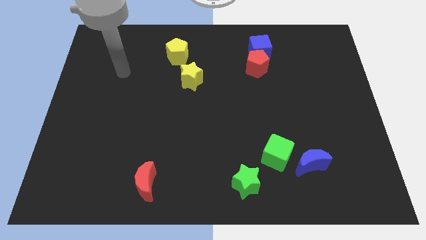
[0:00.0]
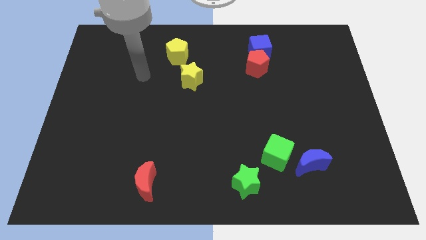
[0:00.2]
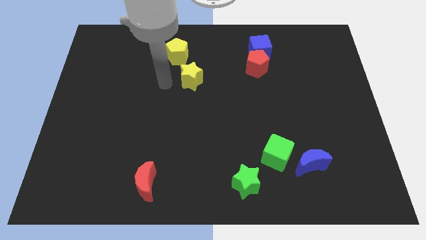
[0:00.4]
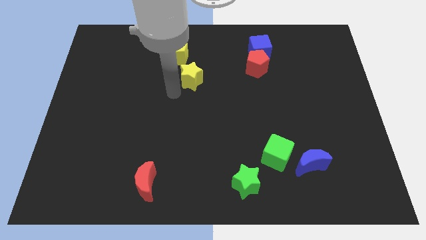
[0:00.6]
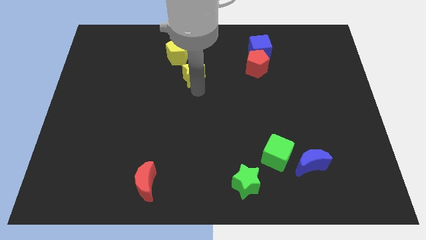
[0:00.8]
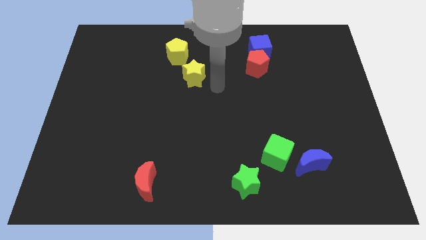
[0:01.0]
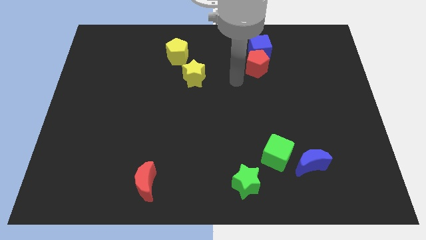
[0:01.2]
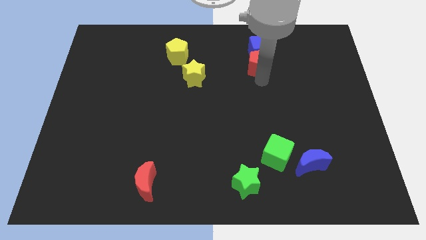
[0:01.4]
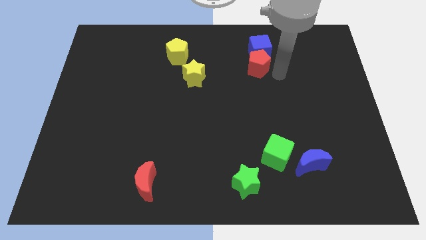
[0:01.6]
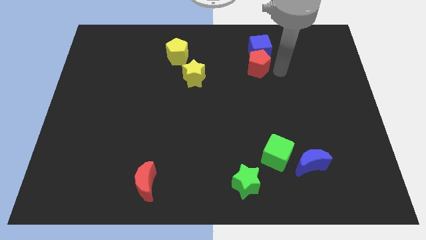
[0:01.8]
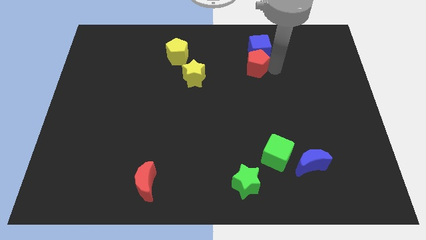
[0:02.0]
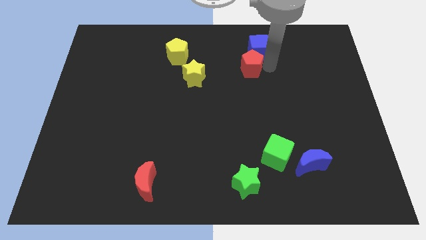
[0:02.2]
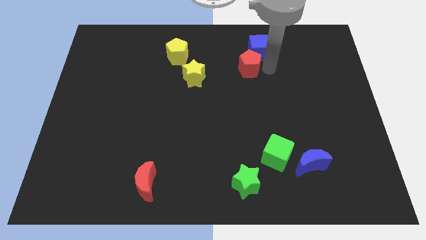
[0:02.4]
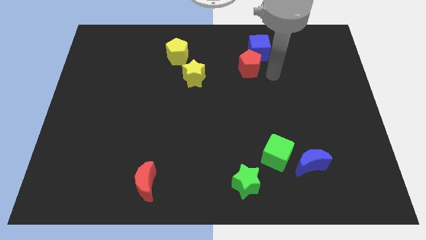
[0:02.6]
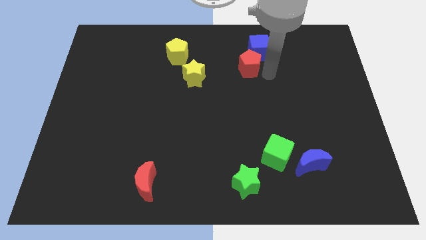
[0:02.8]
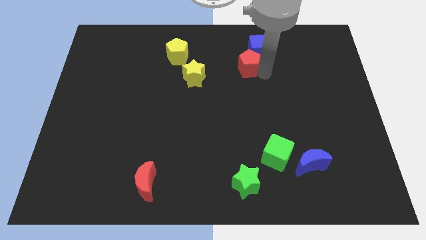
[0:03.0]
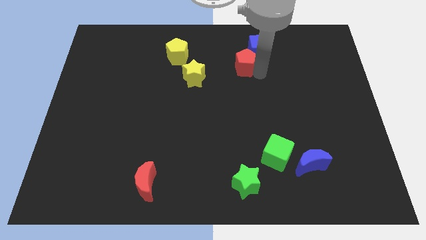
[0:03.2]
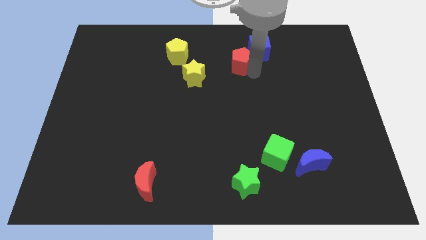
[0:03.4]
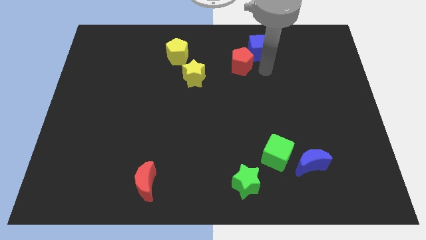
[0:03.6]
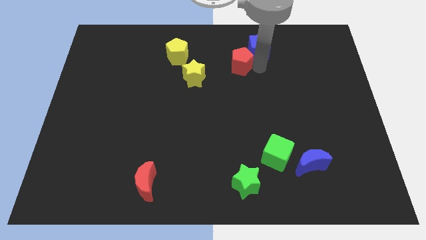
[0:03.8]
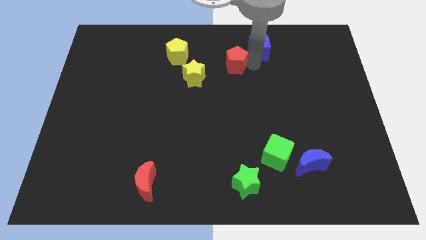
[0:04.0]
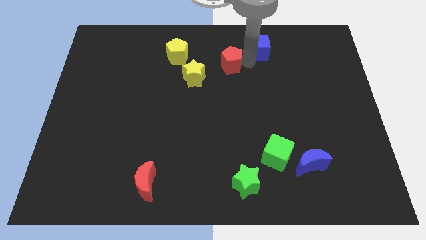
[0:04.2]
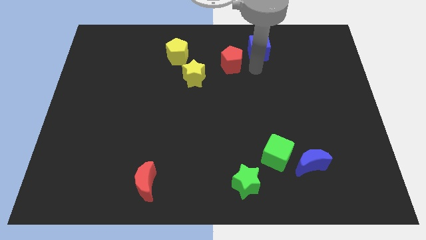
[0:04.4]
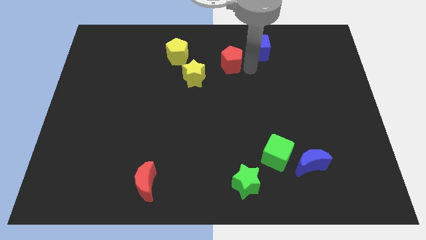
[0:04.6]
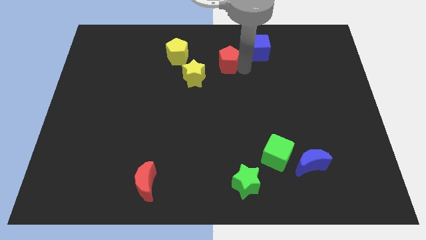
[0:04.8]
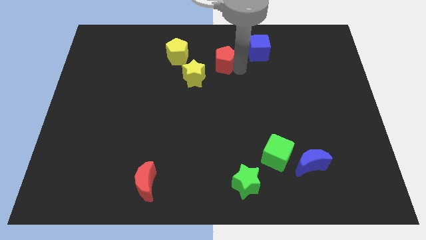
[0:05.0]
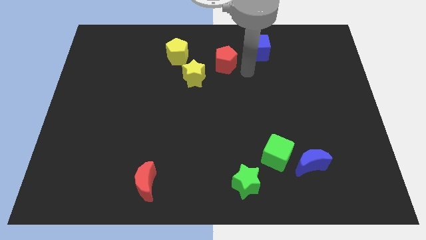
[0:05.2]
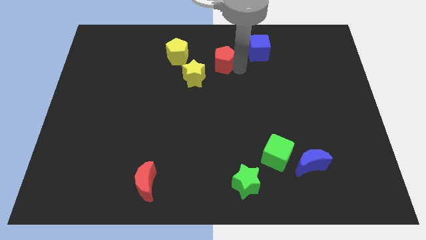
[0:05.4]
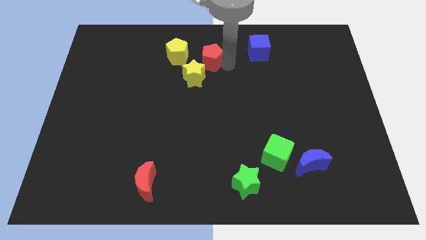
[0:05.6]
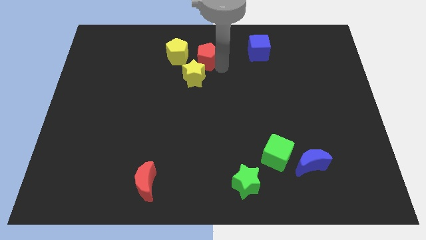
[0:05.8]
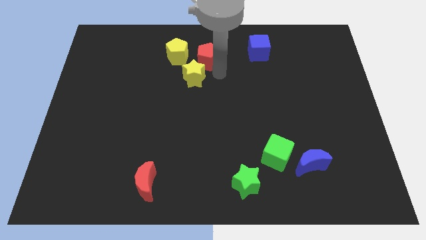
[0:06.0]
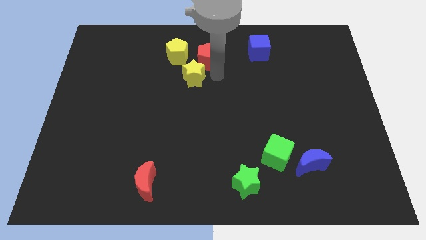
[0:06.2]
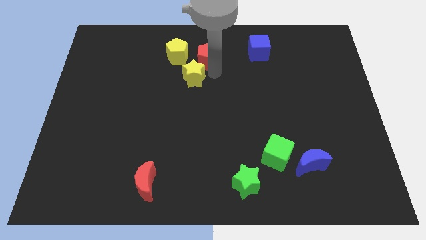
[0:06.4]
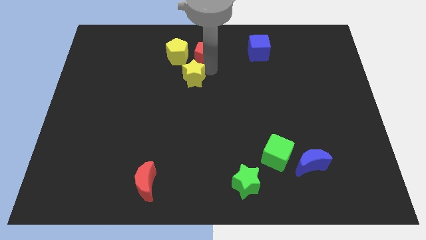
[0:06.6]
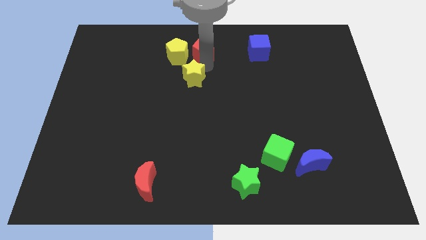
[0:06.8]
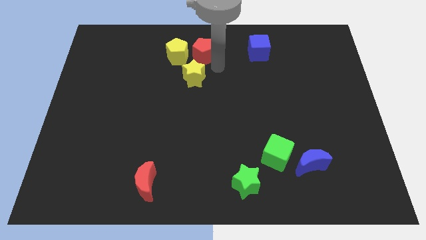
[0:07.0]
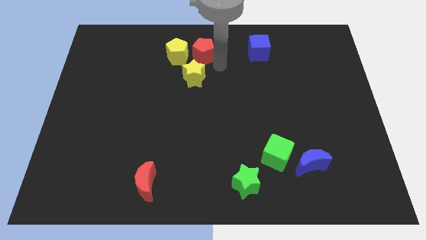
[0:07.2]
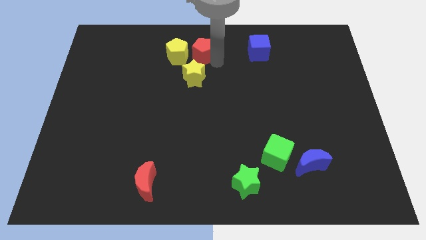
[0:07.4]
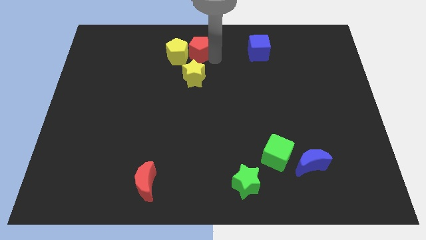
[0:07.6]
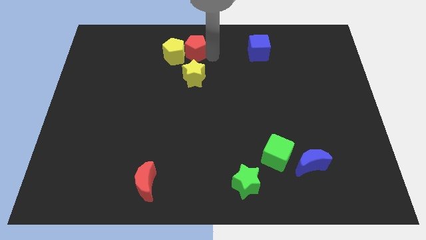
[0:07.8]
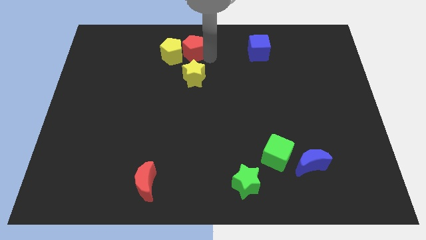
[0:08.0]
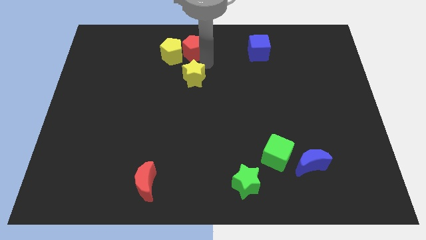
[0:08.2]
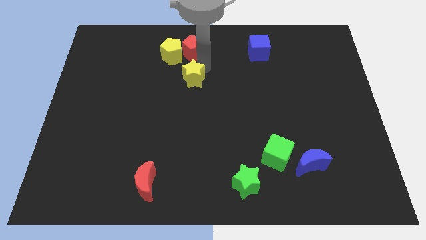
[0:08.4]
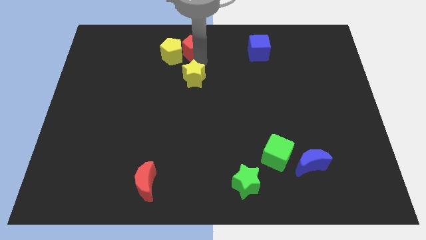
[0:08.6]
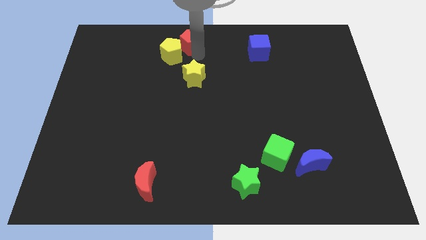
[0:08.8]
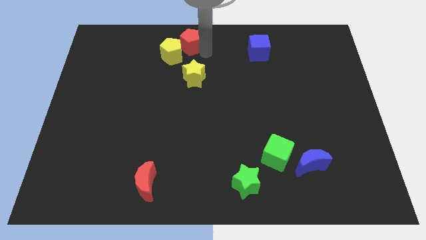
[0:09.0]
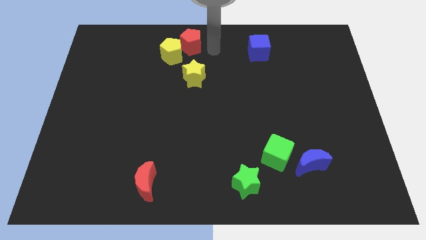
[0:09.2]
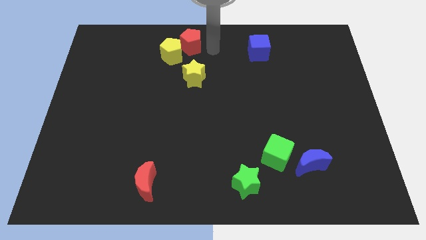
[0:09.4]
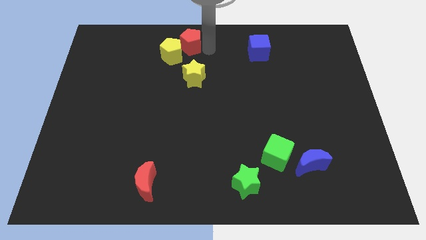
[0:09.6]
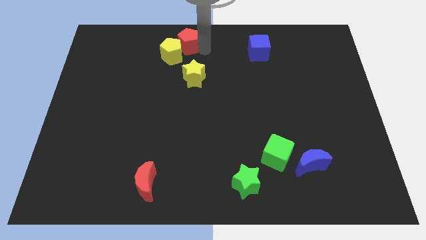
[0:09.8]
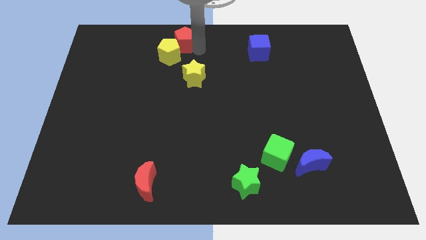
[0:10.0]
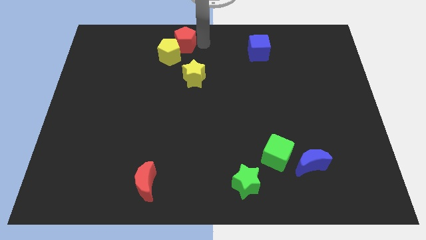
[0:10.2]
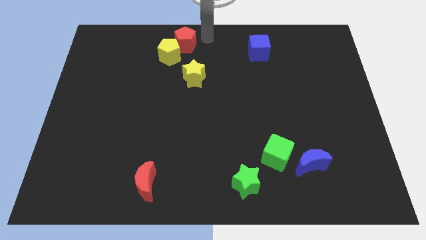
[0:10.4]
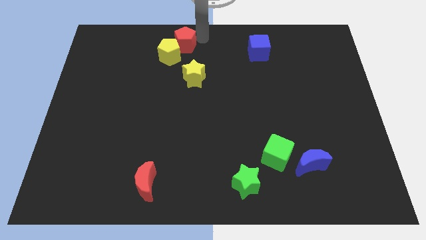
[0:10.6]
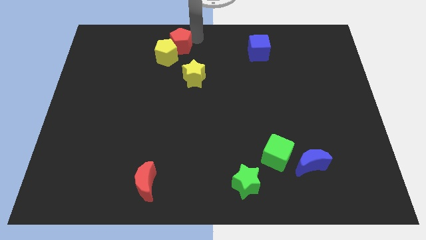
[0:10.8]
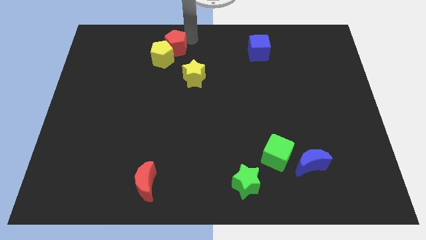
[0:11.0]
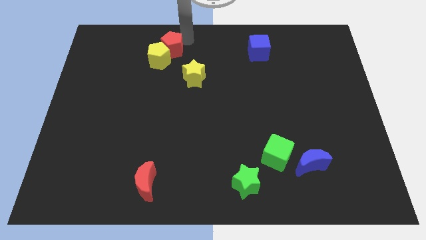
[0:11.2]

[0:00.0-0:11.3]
slide the red pentagon left

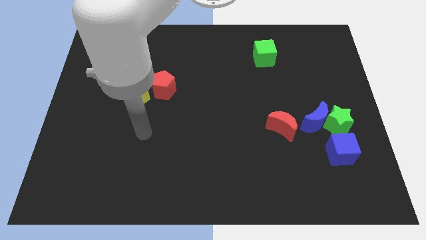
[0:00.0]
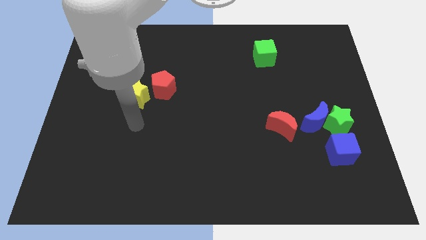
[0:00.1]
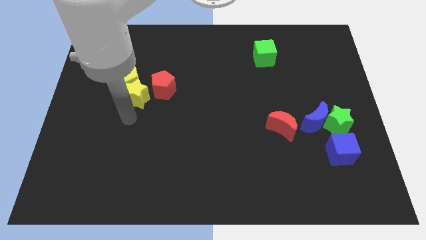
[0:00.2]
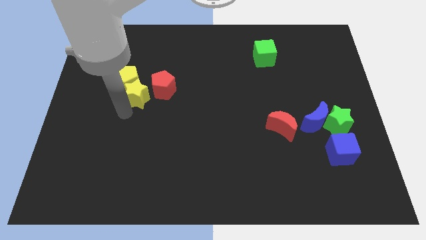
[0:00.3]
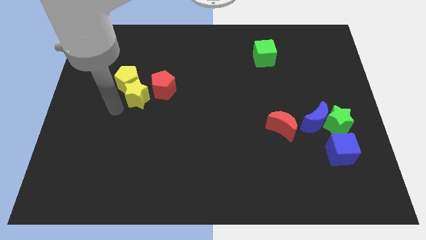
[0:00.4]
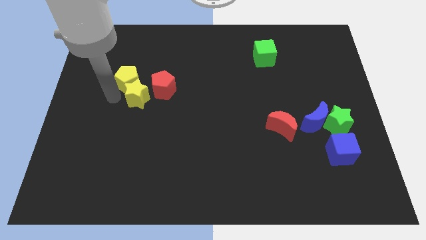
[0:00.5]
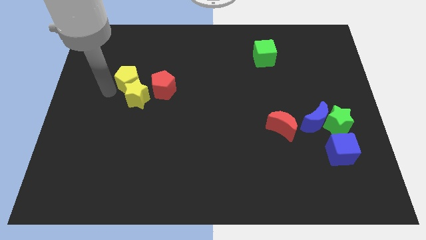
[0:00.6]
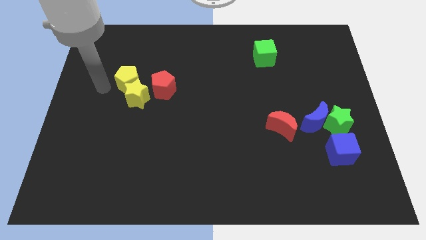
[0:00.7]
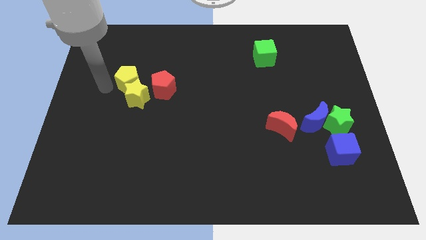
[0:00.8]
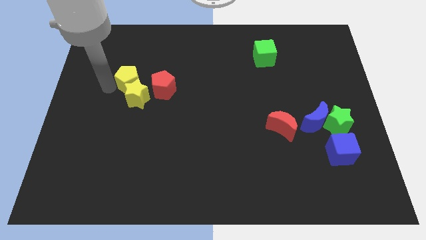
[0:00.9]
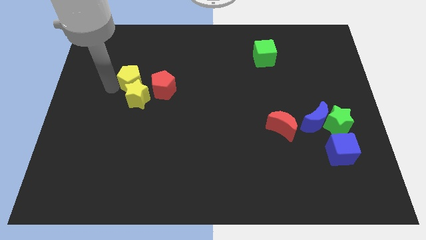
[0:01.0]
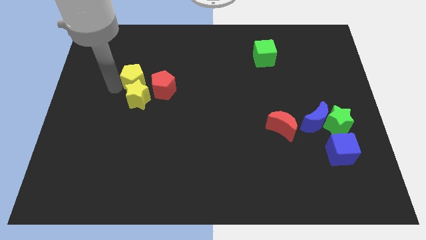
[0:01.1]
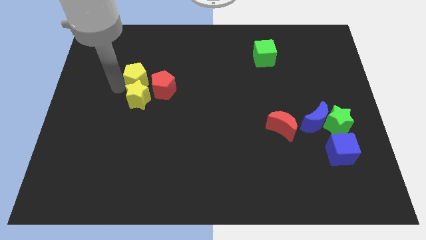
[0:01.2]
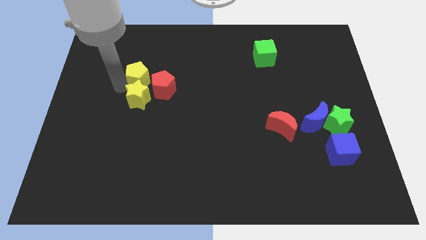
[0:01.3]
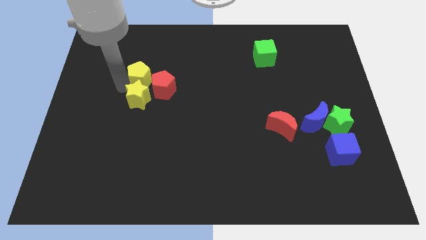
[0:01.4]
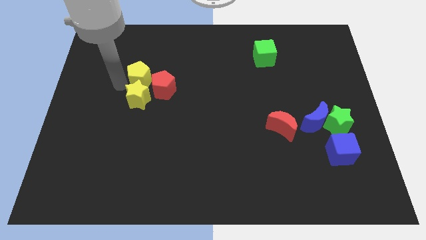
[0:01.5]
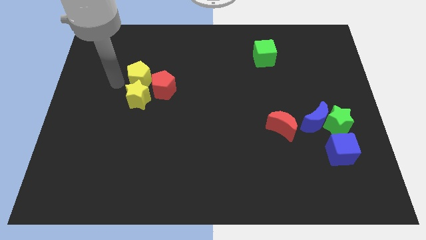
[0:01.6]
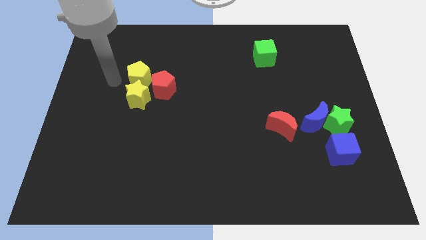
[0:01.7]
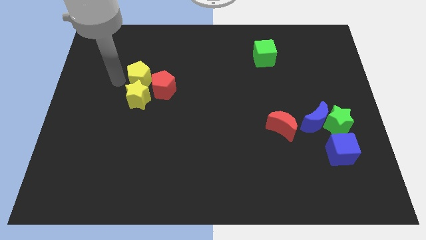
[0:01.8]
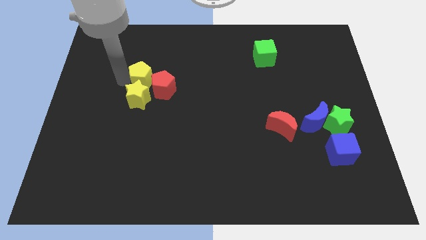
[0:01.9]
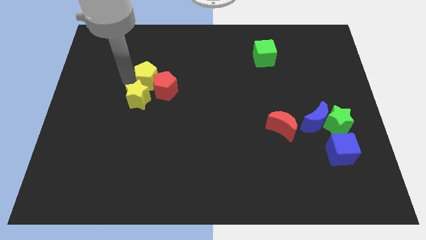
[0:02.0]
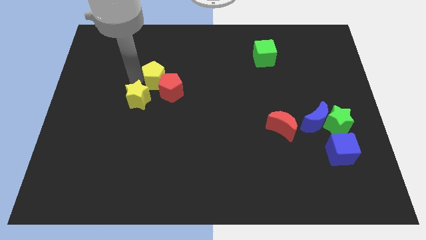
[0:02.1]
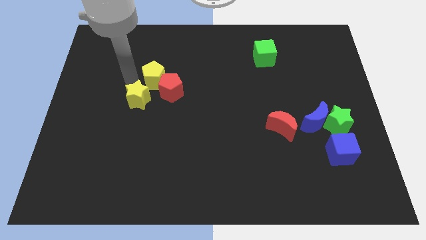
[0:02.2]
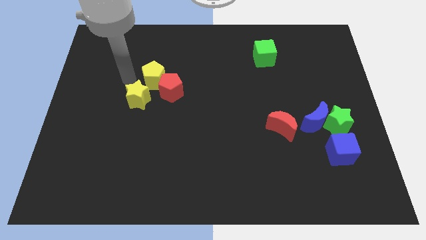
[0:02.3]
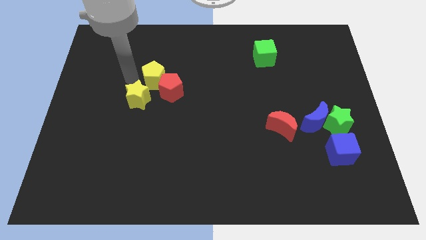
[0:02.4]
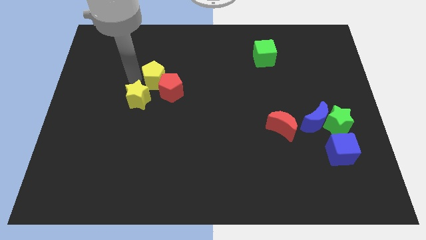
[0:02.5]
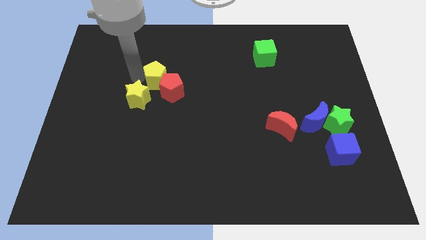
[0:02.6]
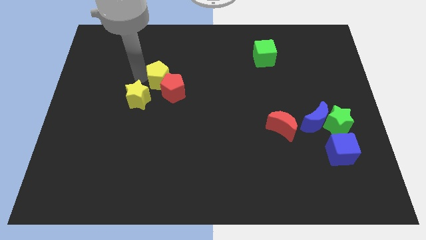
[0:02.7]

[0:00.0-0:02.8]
slightly push the yellow pentagon to the right
